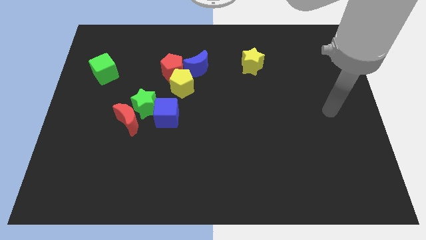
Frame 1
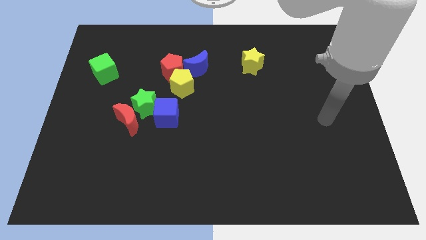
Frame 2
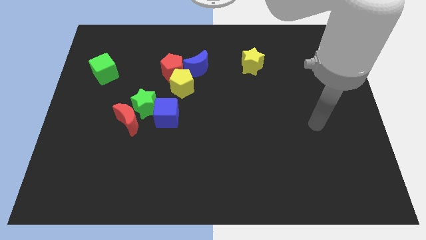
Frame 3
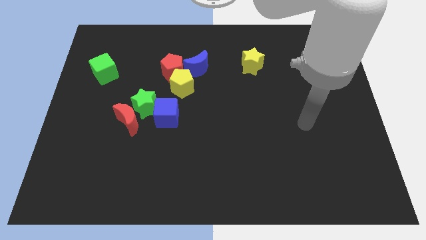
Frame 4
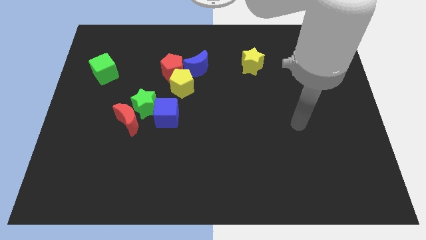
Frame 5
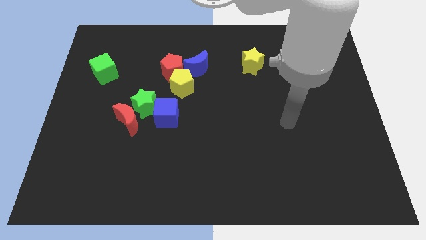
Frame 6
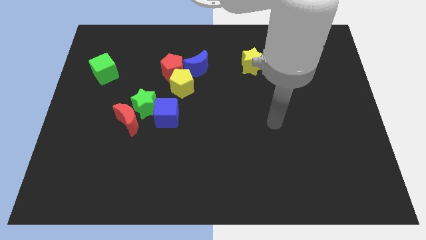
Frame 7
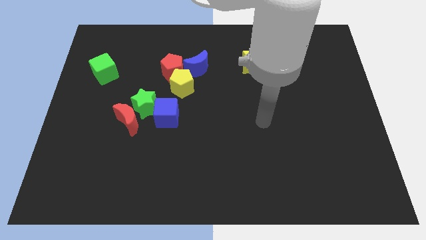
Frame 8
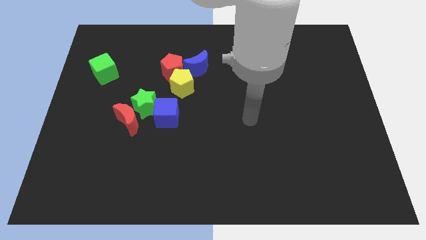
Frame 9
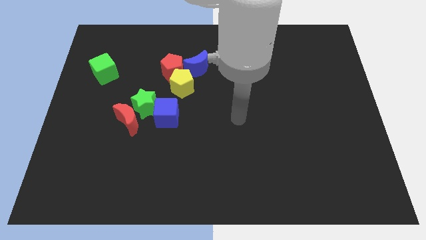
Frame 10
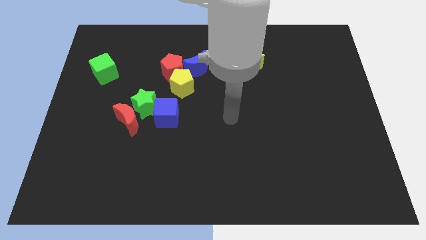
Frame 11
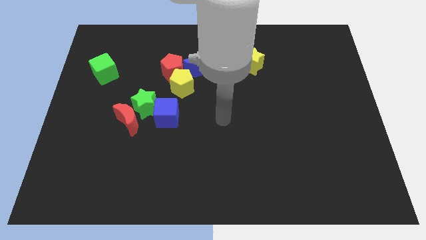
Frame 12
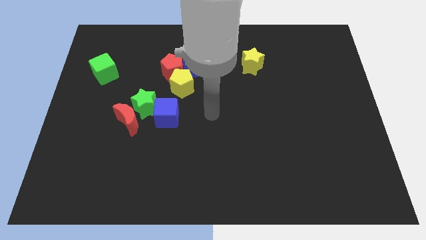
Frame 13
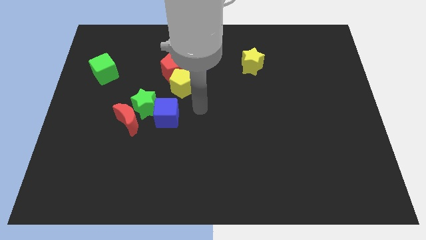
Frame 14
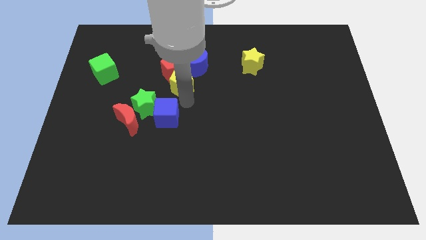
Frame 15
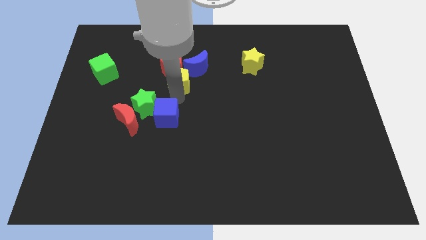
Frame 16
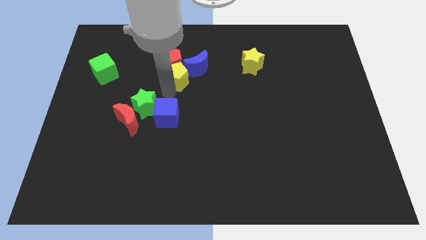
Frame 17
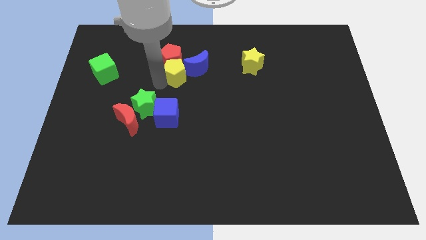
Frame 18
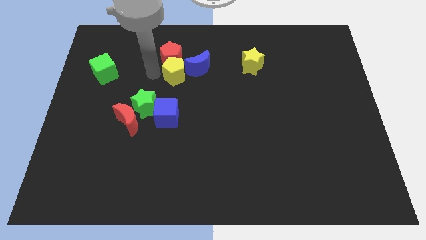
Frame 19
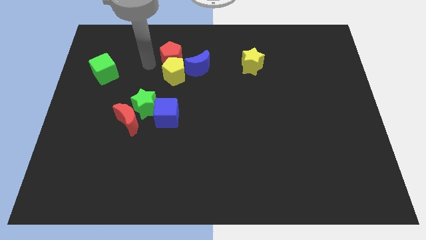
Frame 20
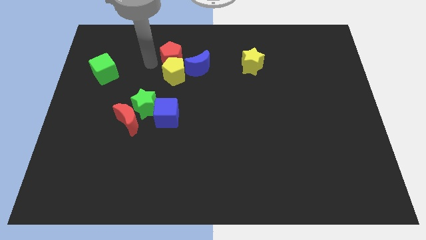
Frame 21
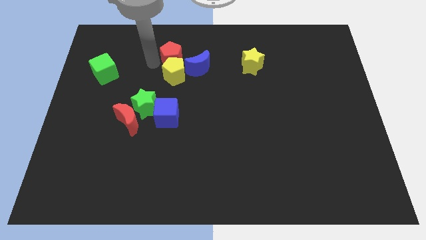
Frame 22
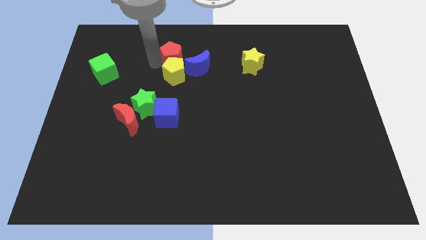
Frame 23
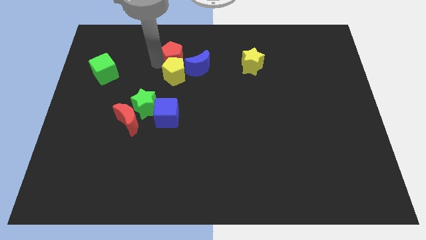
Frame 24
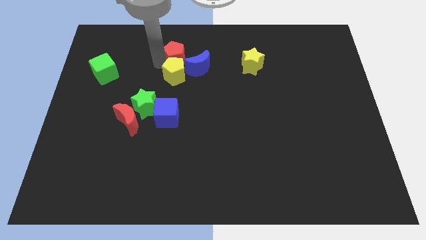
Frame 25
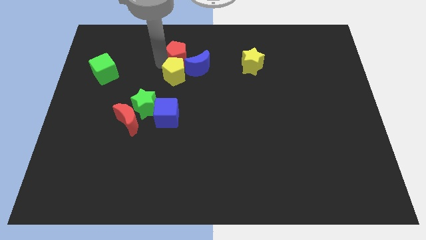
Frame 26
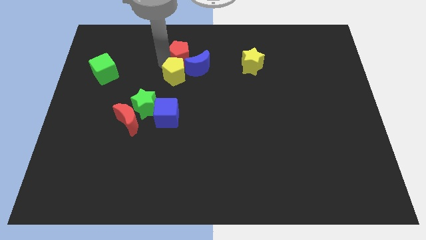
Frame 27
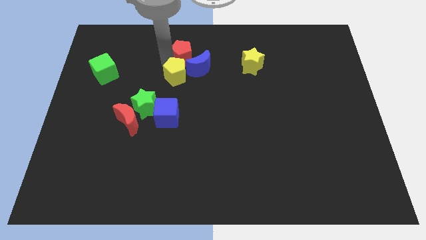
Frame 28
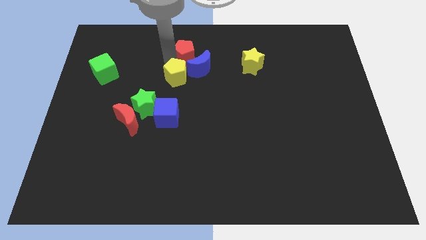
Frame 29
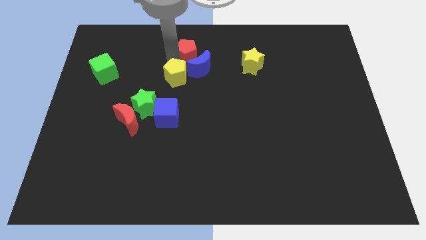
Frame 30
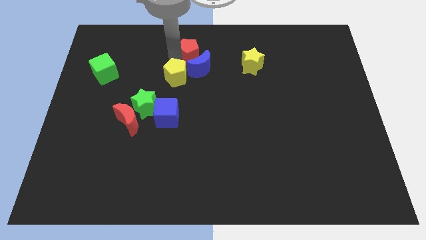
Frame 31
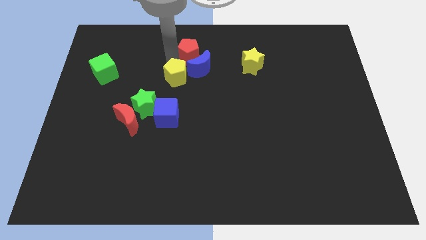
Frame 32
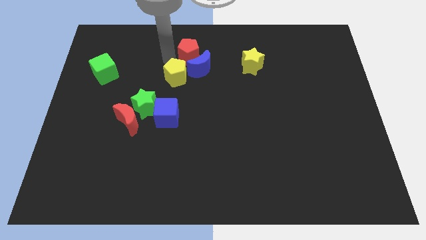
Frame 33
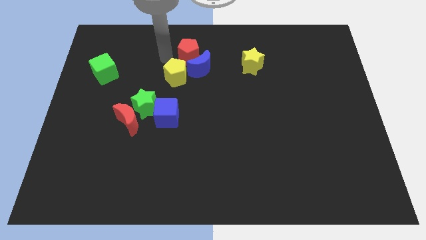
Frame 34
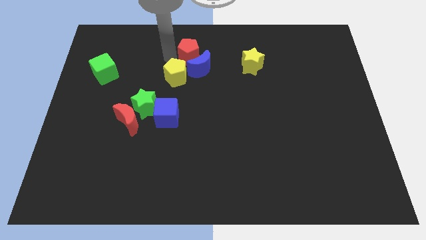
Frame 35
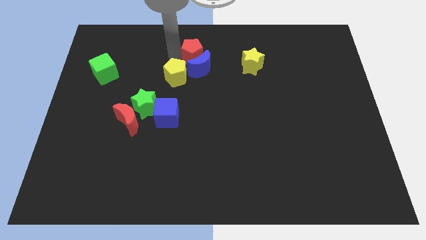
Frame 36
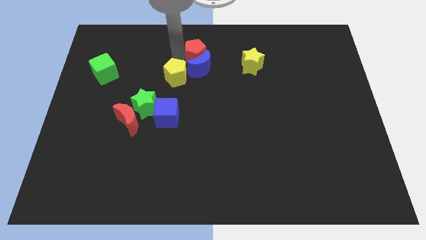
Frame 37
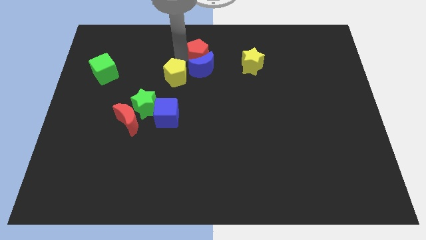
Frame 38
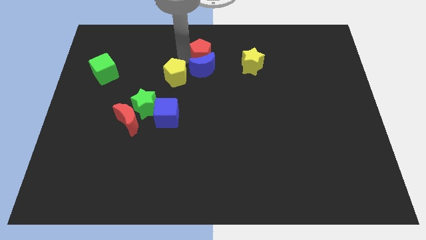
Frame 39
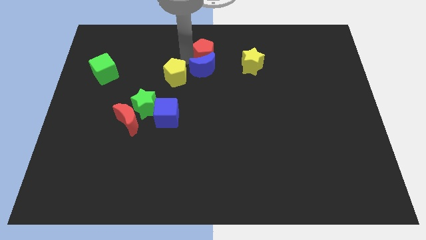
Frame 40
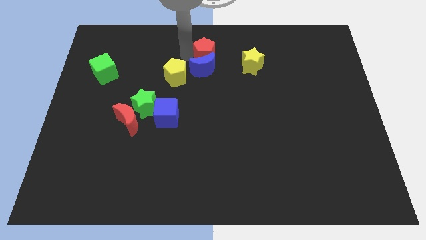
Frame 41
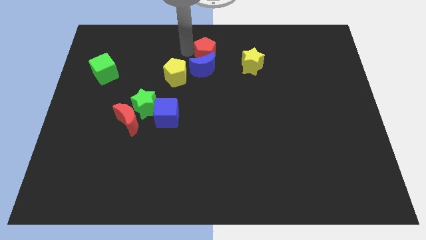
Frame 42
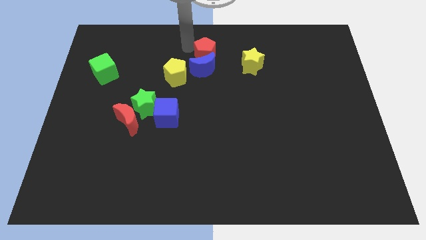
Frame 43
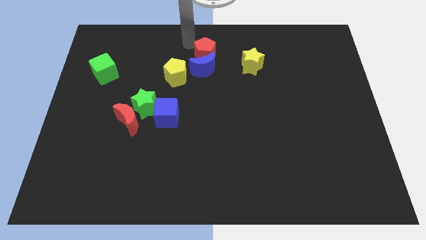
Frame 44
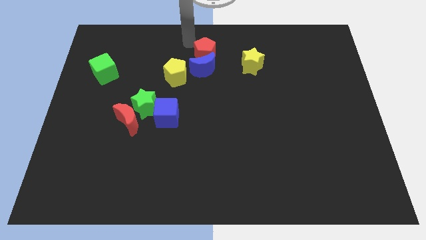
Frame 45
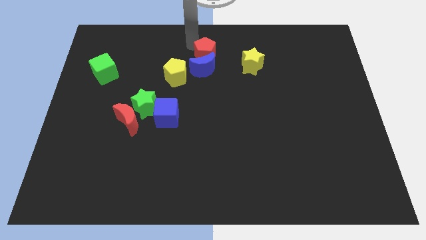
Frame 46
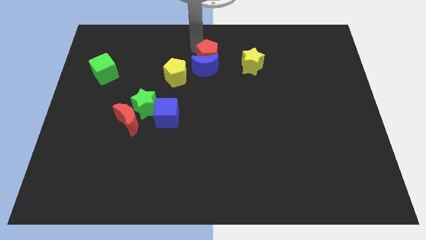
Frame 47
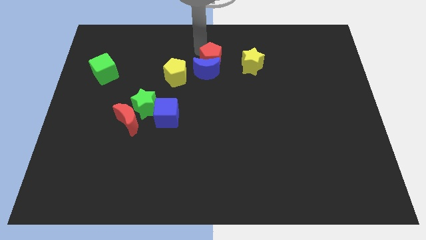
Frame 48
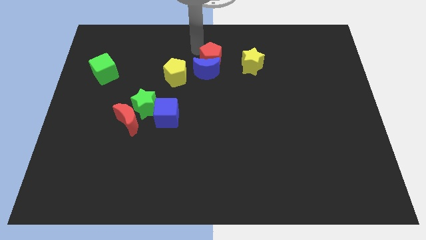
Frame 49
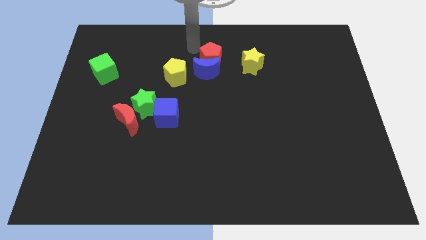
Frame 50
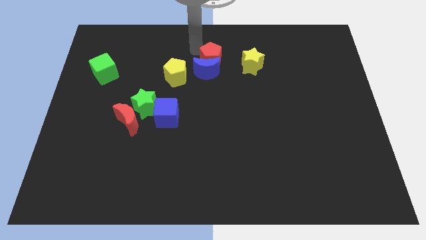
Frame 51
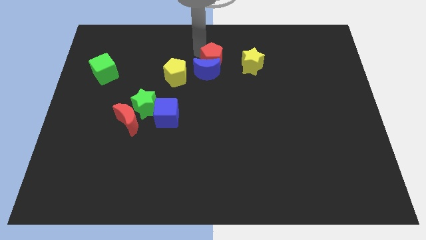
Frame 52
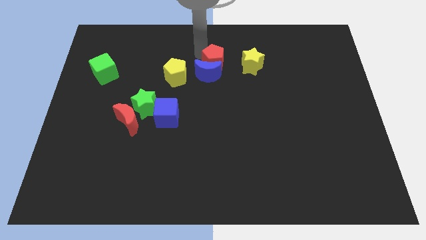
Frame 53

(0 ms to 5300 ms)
push the red pentagon right of the yellow pentagon

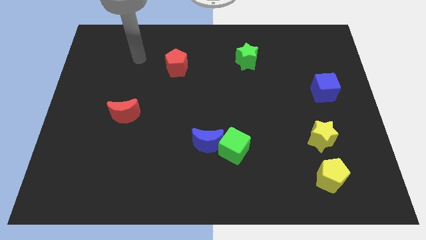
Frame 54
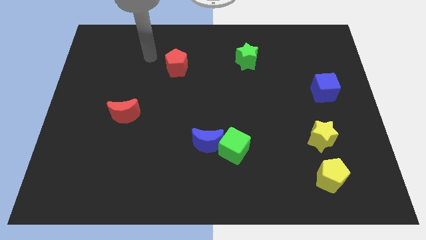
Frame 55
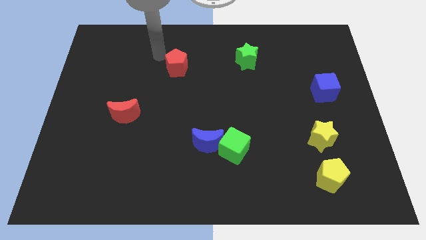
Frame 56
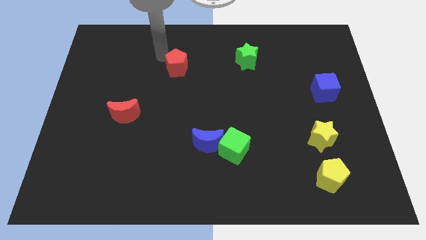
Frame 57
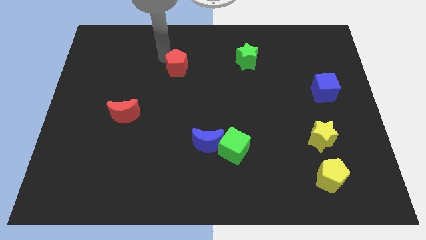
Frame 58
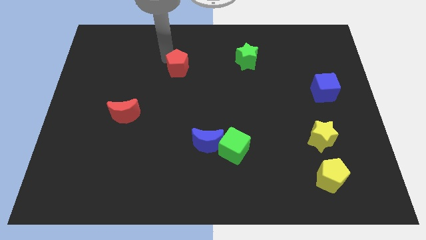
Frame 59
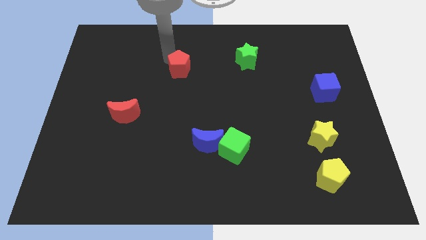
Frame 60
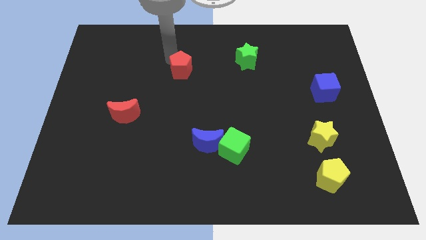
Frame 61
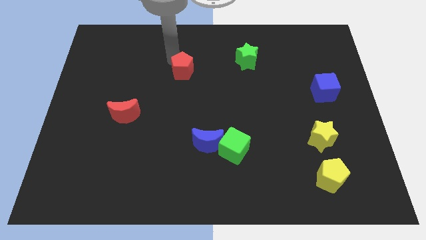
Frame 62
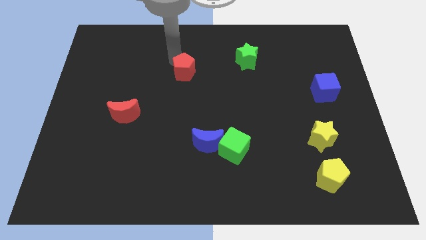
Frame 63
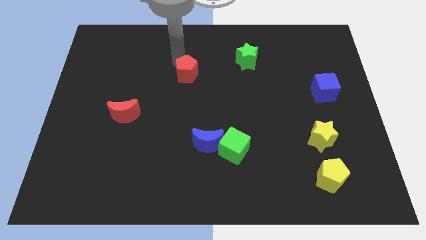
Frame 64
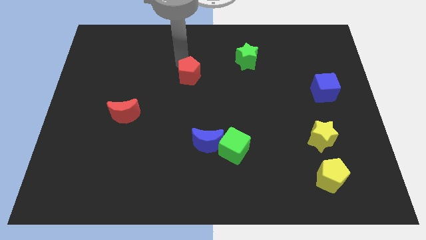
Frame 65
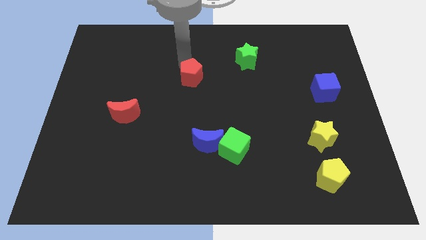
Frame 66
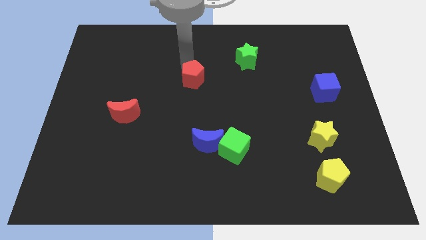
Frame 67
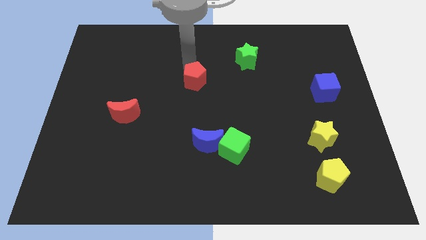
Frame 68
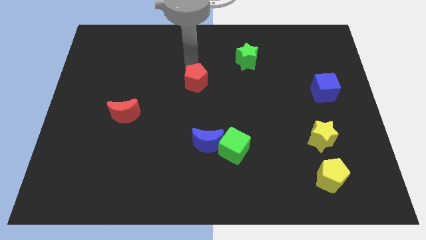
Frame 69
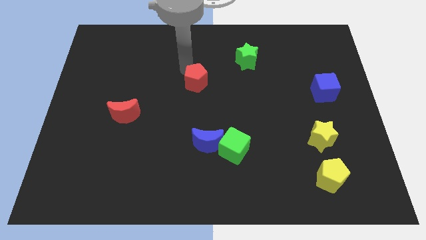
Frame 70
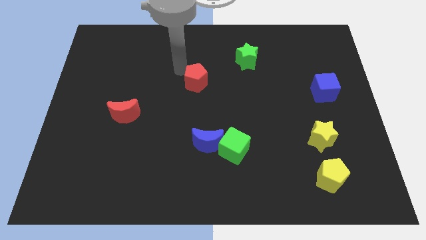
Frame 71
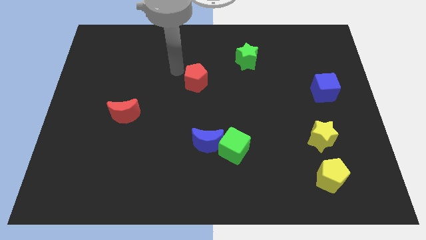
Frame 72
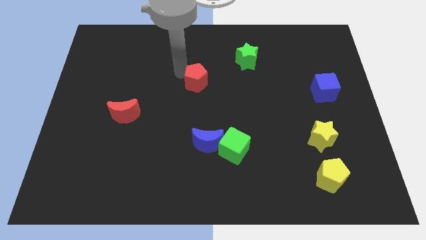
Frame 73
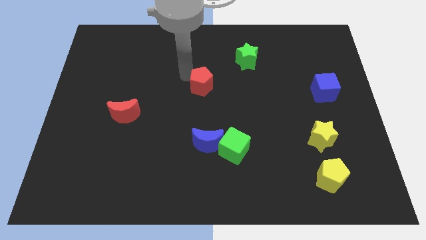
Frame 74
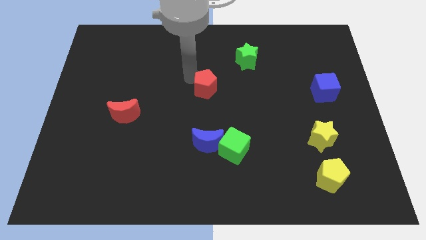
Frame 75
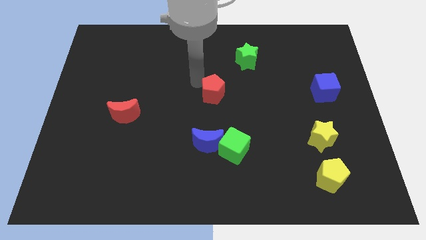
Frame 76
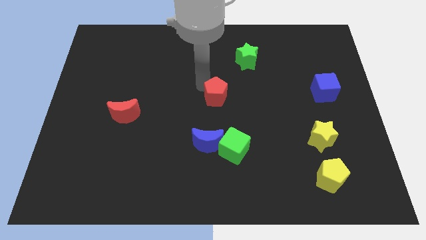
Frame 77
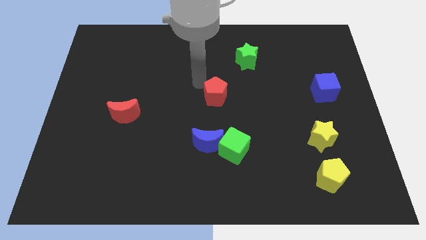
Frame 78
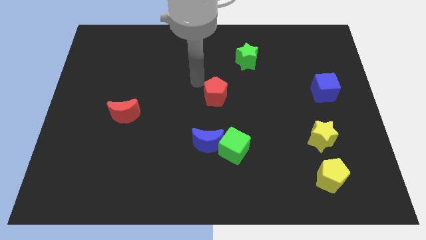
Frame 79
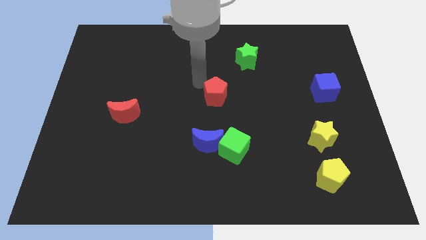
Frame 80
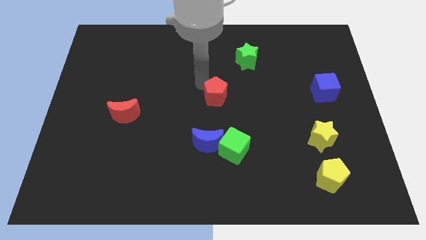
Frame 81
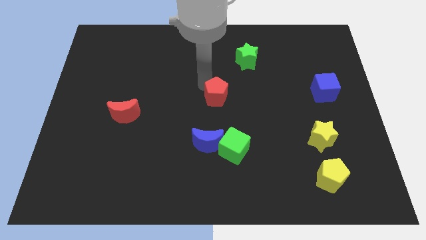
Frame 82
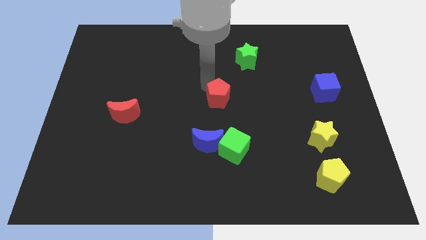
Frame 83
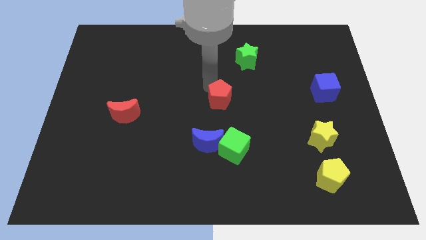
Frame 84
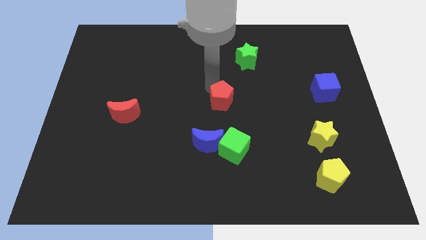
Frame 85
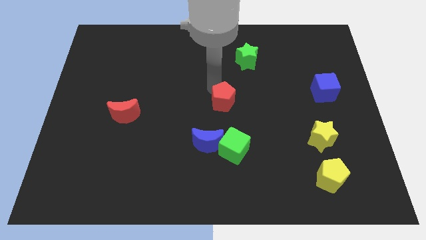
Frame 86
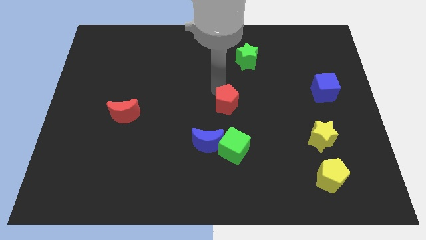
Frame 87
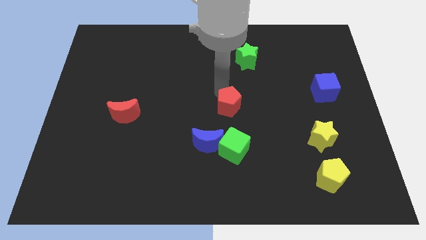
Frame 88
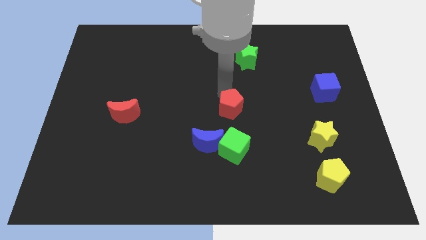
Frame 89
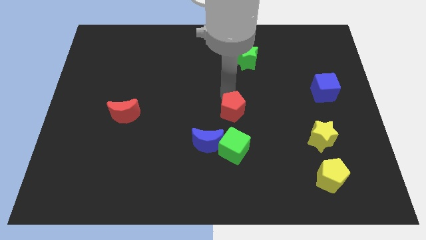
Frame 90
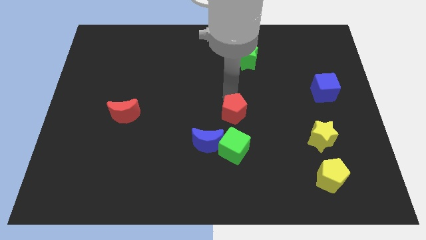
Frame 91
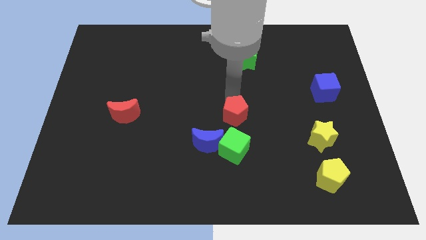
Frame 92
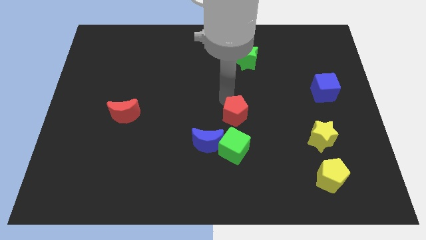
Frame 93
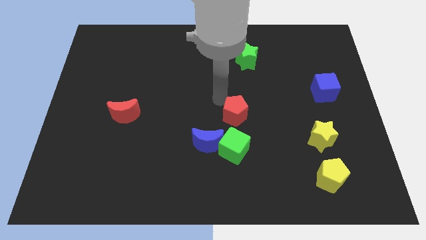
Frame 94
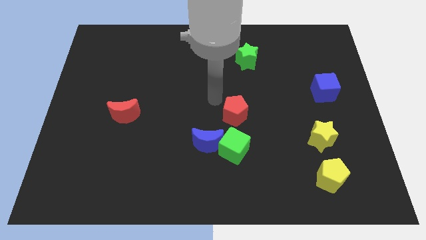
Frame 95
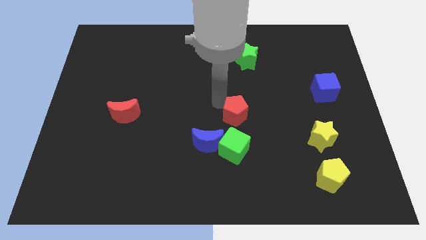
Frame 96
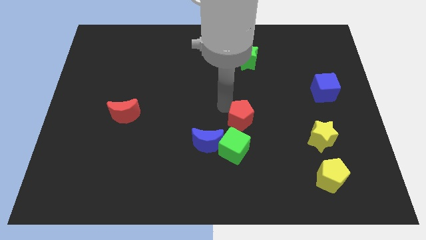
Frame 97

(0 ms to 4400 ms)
push the red pentagon to the top right side of the green cube
